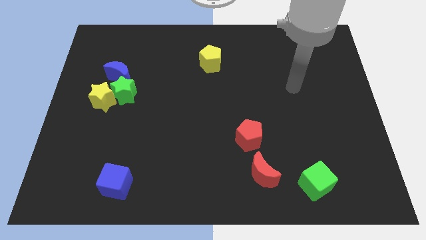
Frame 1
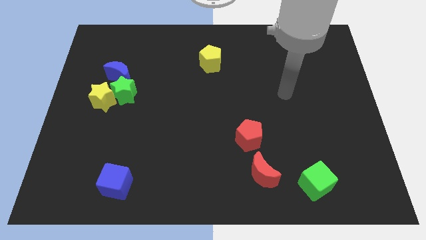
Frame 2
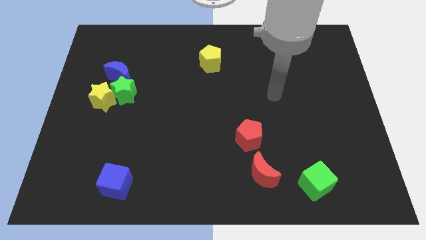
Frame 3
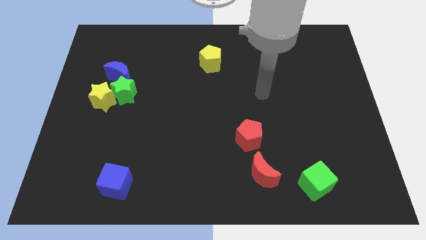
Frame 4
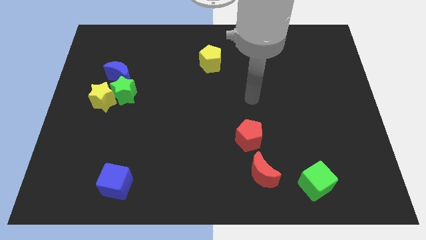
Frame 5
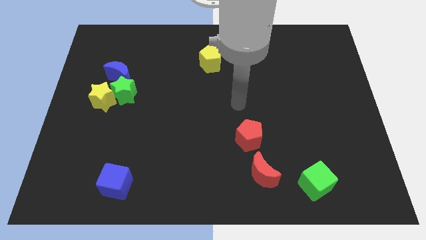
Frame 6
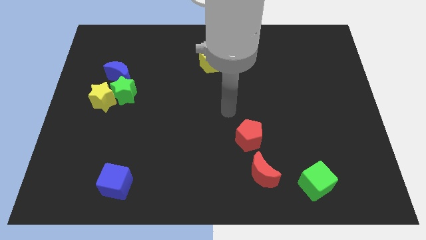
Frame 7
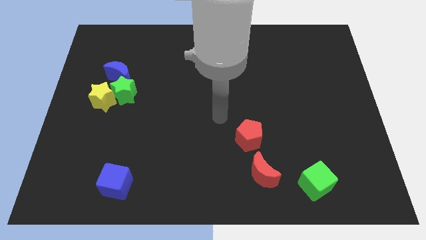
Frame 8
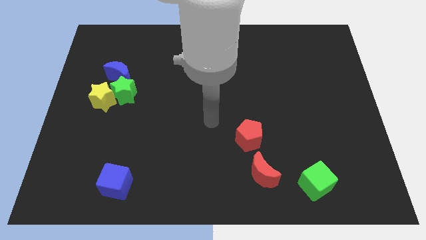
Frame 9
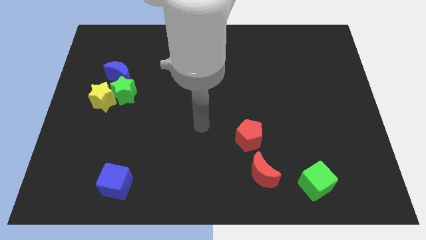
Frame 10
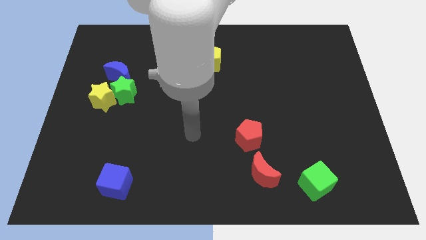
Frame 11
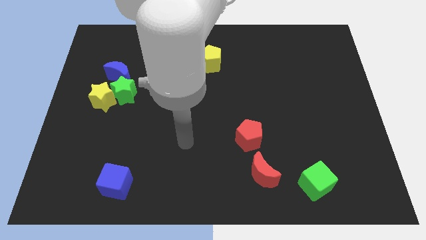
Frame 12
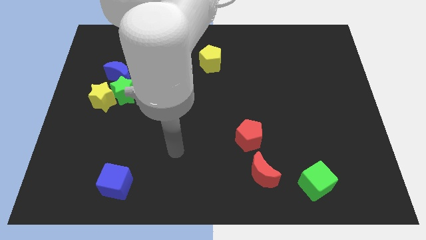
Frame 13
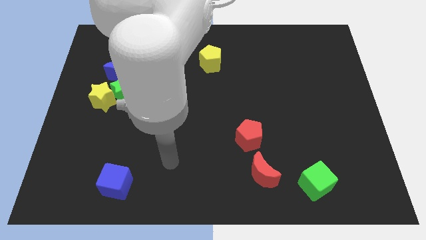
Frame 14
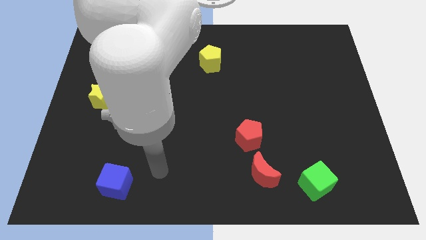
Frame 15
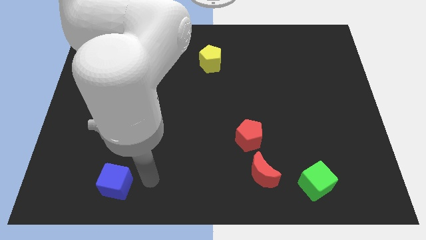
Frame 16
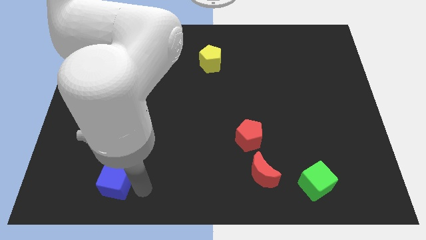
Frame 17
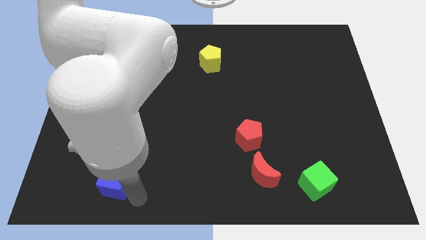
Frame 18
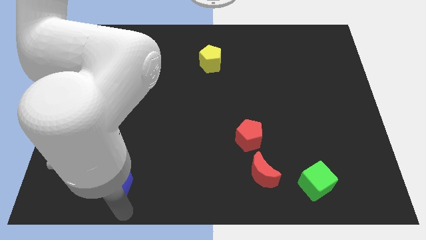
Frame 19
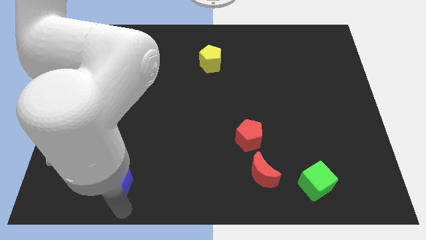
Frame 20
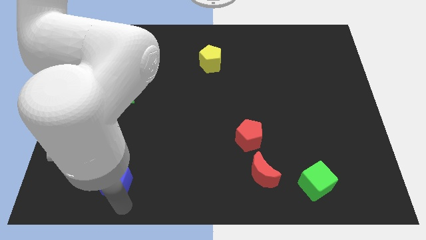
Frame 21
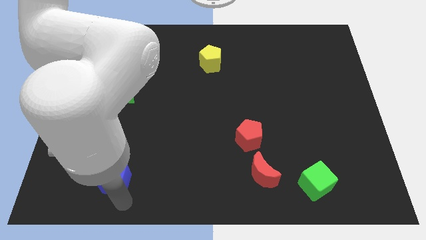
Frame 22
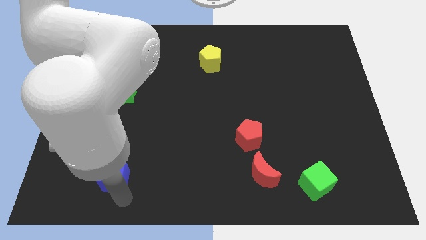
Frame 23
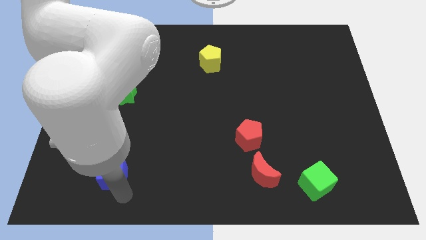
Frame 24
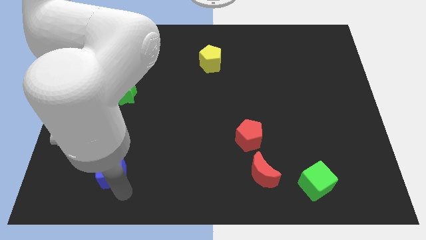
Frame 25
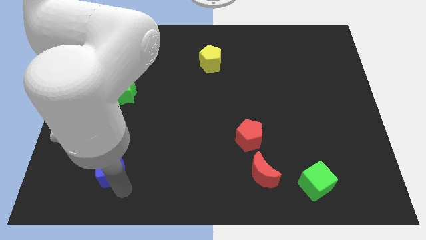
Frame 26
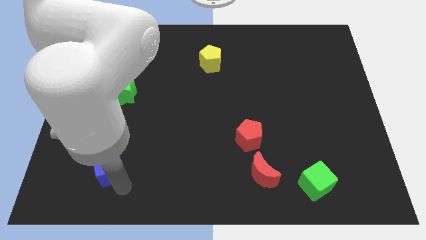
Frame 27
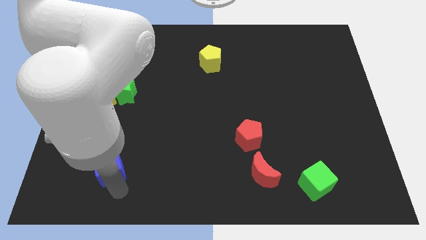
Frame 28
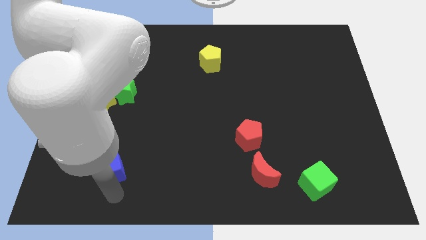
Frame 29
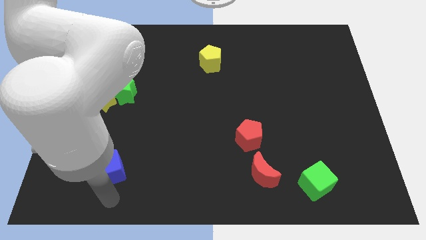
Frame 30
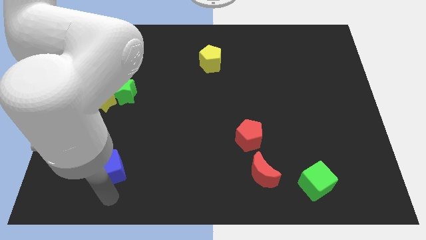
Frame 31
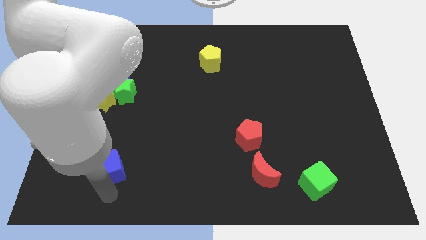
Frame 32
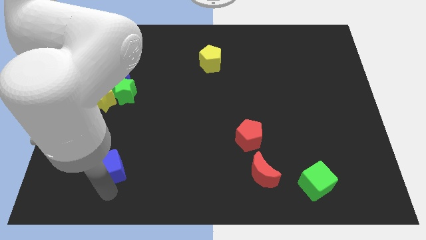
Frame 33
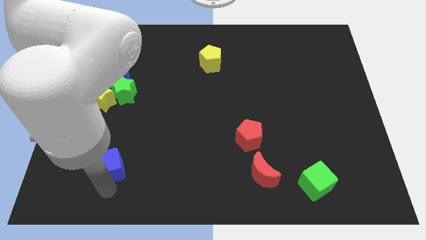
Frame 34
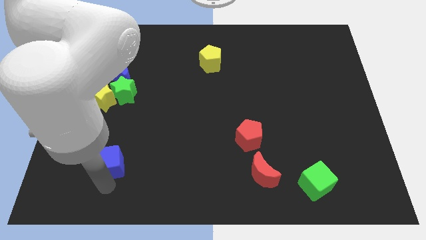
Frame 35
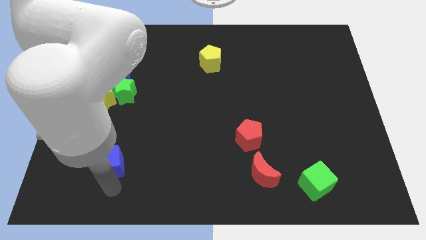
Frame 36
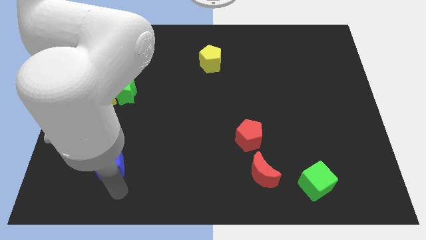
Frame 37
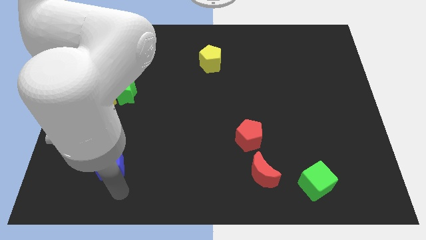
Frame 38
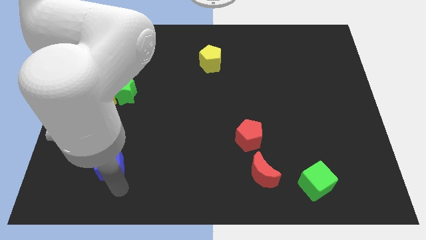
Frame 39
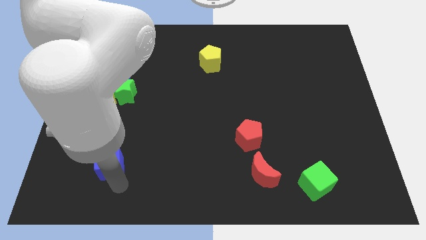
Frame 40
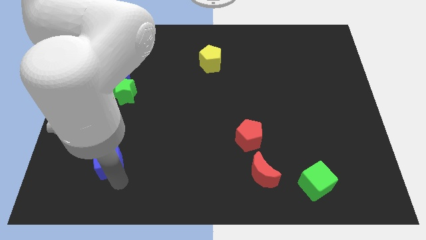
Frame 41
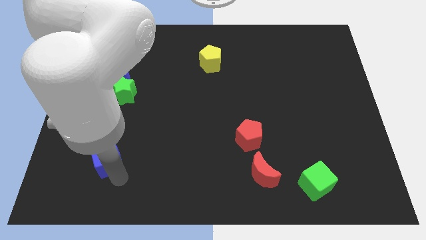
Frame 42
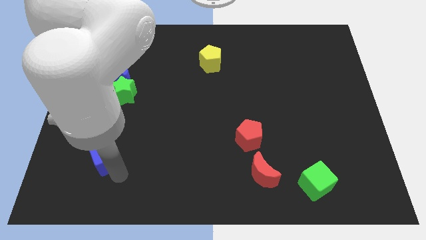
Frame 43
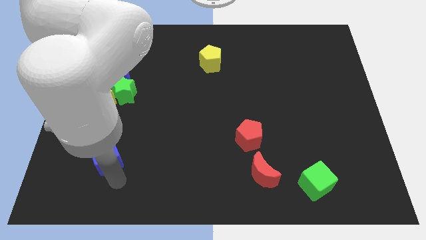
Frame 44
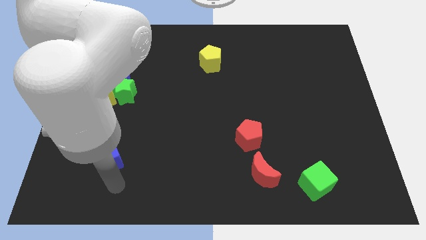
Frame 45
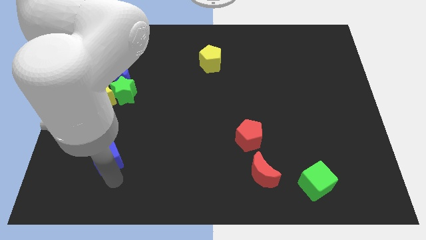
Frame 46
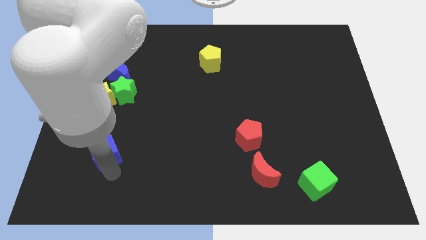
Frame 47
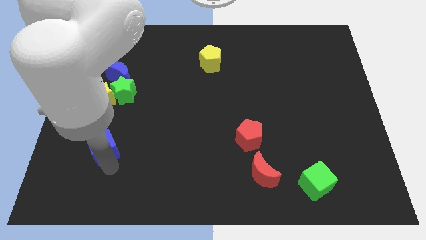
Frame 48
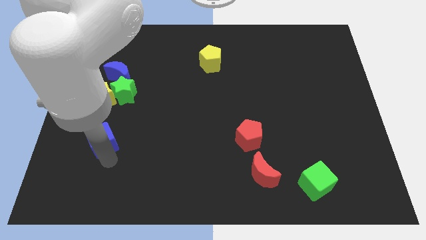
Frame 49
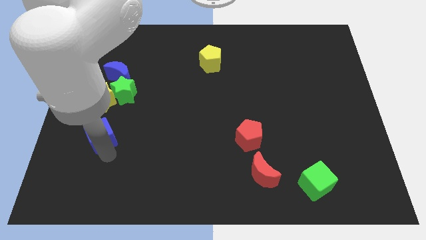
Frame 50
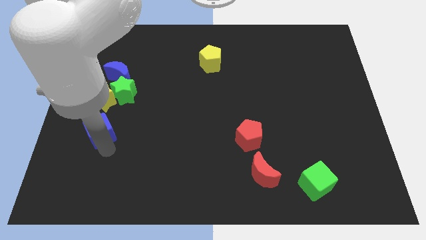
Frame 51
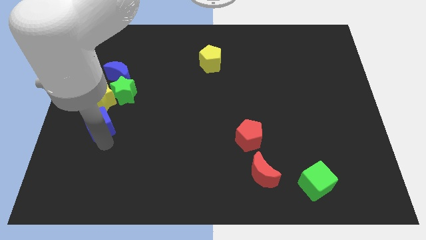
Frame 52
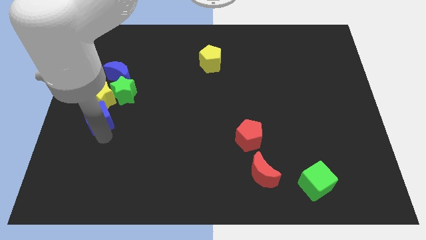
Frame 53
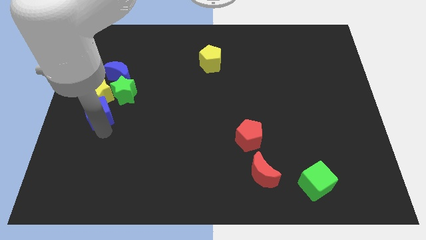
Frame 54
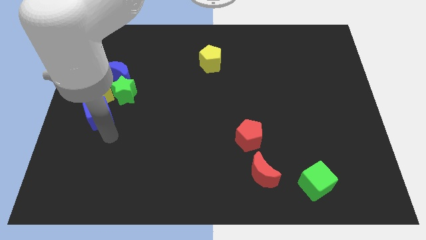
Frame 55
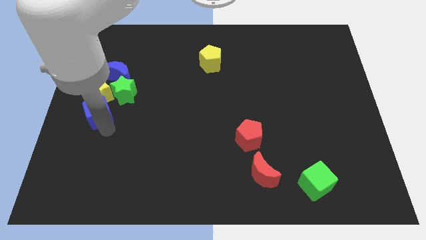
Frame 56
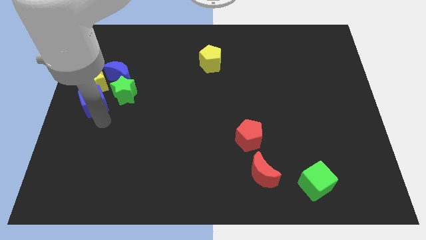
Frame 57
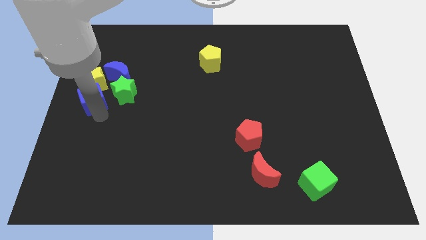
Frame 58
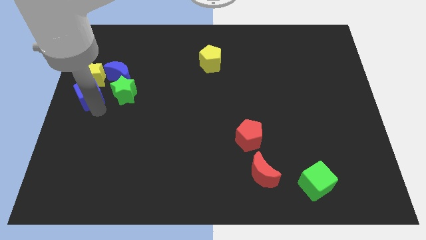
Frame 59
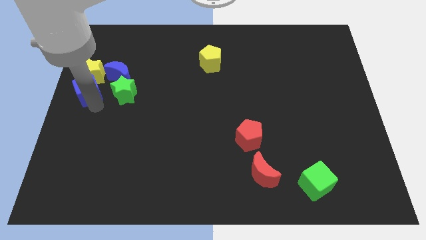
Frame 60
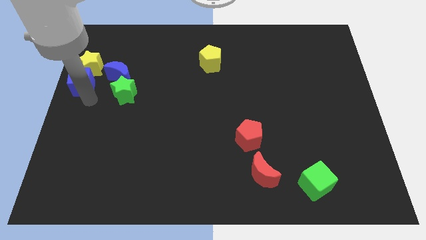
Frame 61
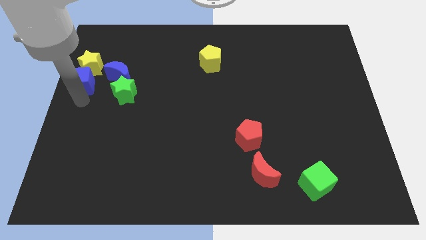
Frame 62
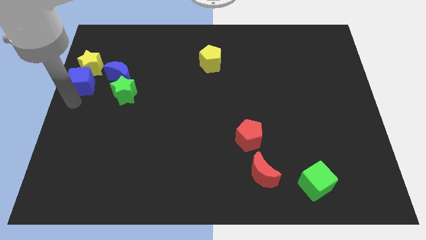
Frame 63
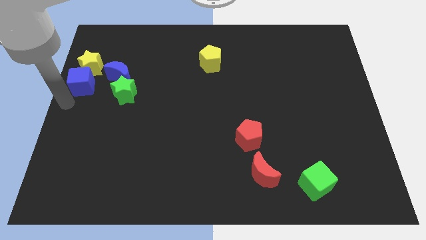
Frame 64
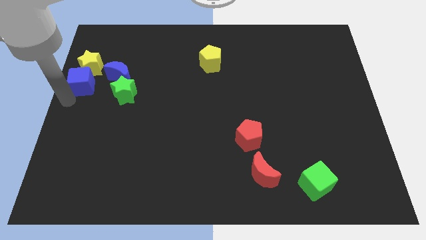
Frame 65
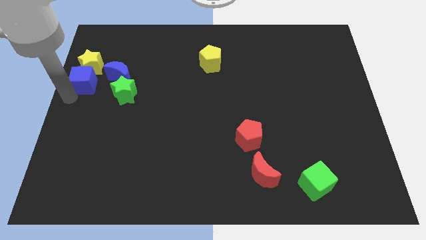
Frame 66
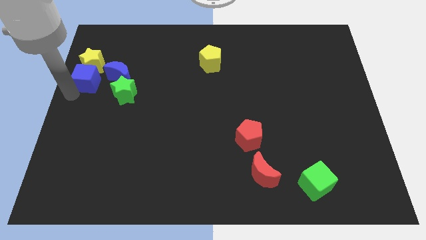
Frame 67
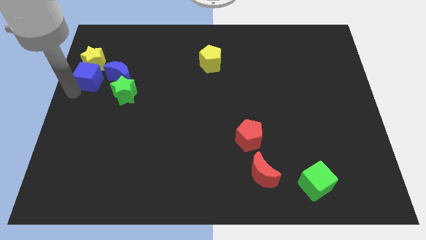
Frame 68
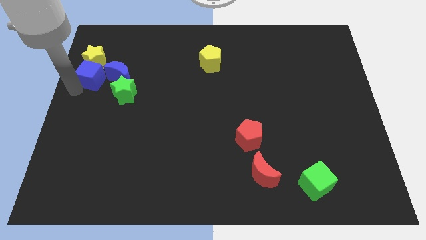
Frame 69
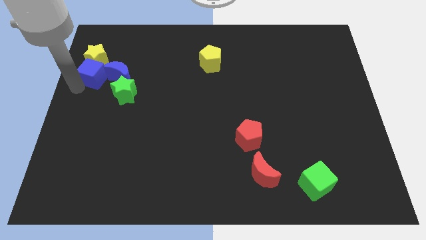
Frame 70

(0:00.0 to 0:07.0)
put the blue cube diagonally up and to the left of the blue moon

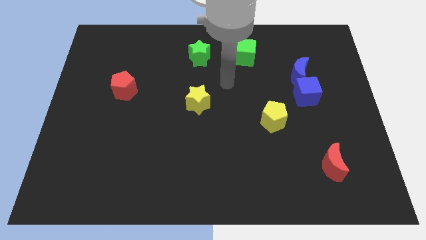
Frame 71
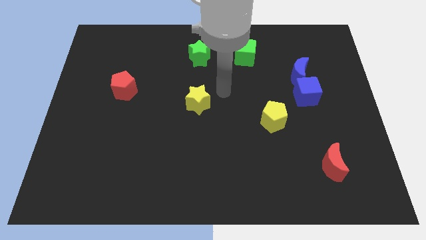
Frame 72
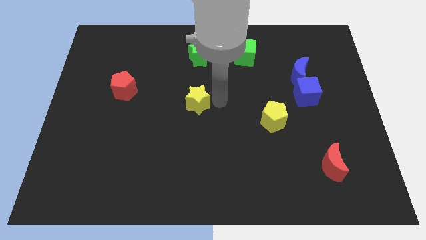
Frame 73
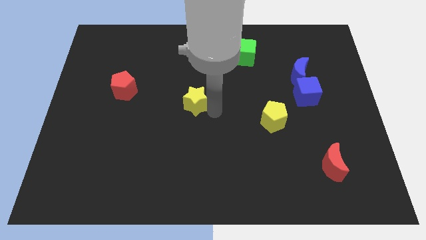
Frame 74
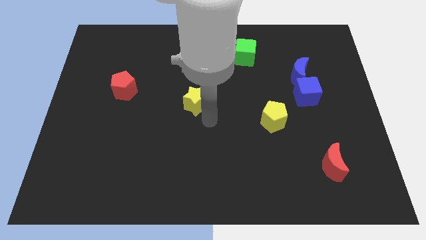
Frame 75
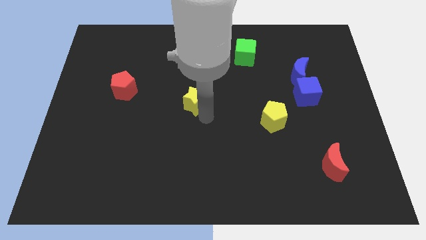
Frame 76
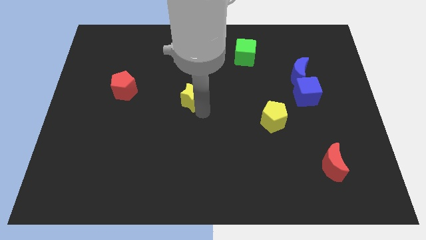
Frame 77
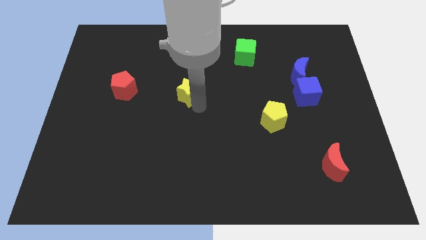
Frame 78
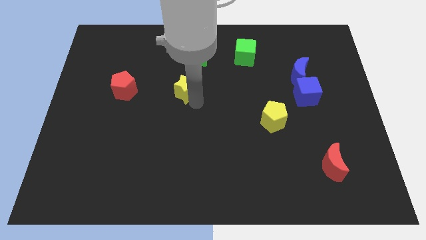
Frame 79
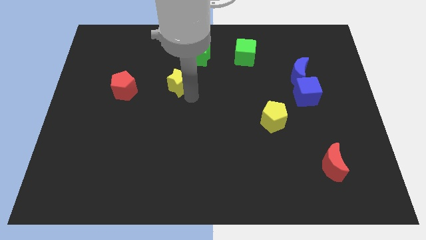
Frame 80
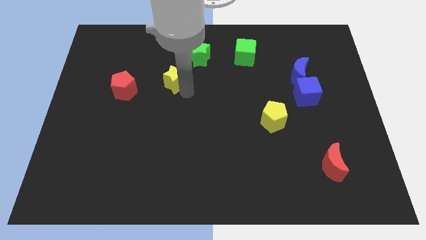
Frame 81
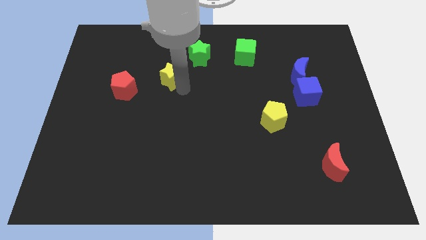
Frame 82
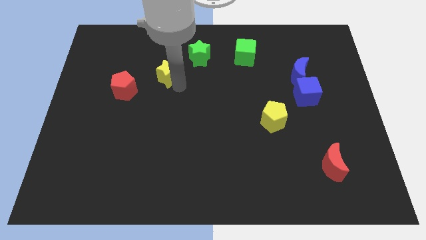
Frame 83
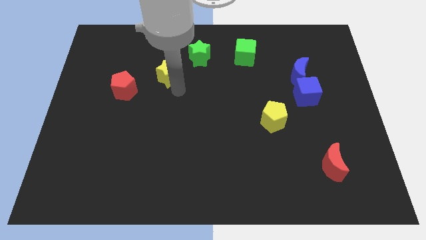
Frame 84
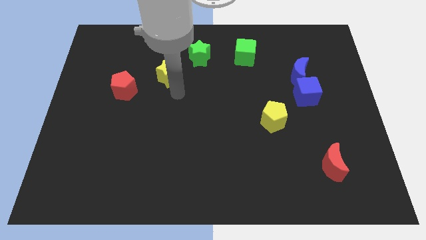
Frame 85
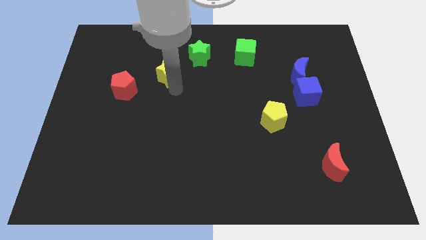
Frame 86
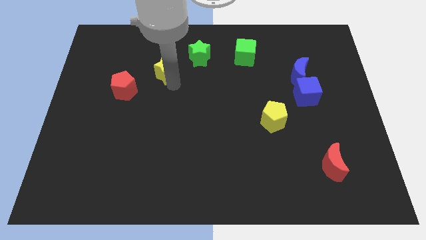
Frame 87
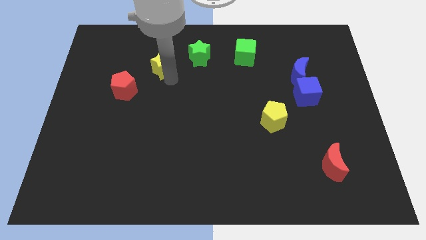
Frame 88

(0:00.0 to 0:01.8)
slide the yellow star left of the green star
